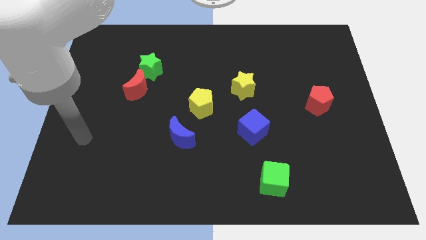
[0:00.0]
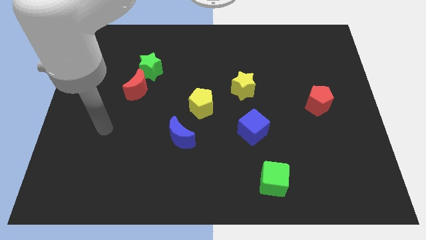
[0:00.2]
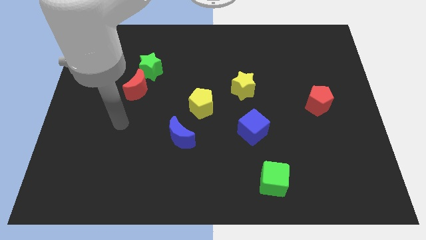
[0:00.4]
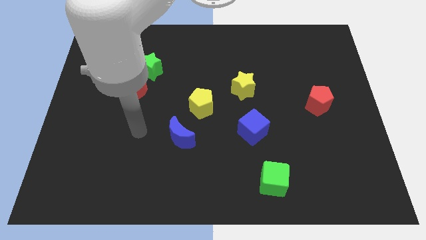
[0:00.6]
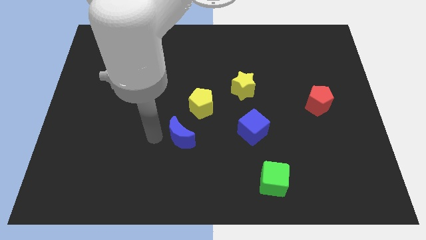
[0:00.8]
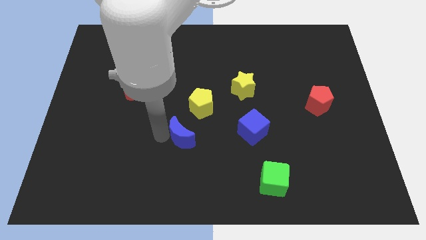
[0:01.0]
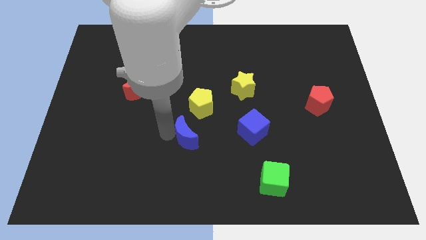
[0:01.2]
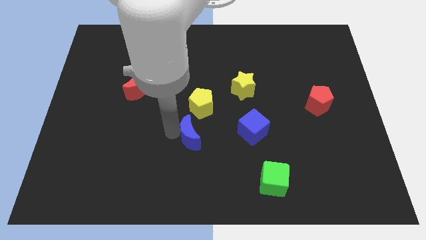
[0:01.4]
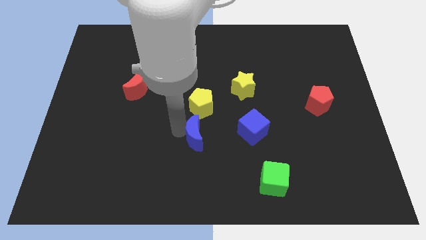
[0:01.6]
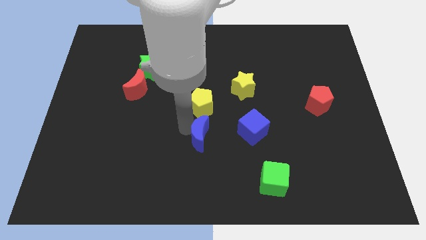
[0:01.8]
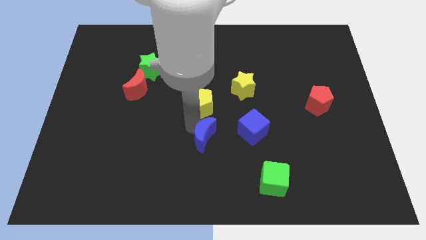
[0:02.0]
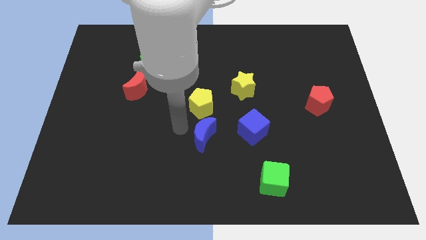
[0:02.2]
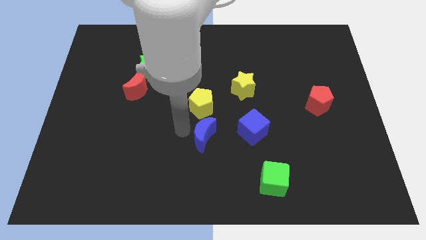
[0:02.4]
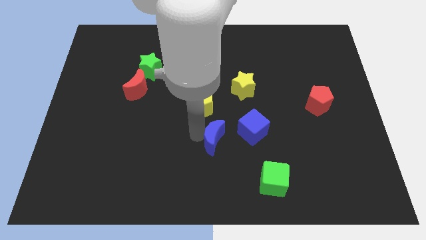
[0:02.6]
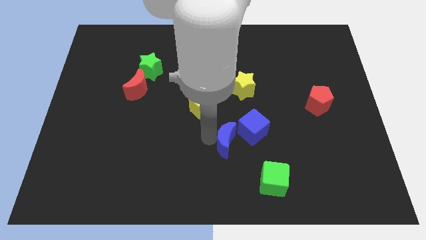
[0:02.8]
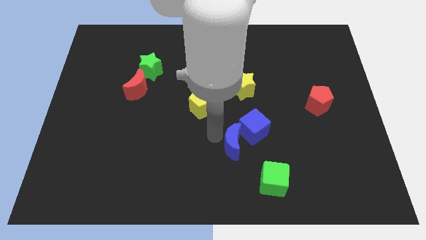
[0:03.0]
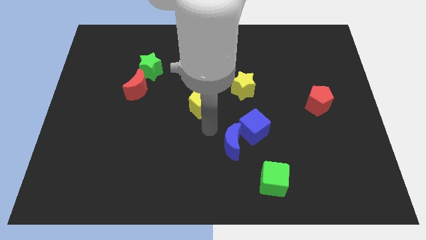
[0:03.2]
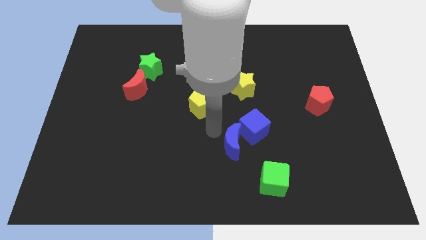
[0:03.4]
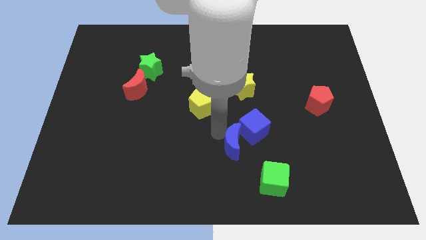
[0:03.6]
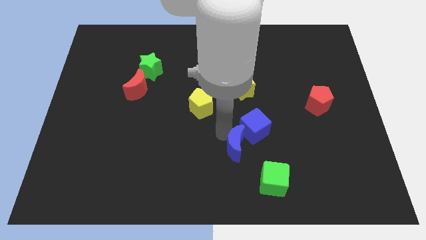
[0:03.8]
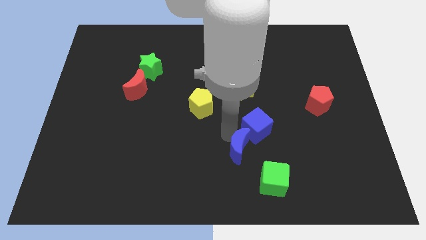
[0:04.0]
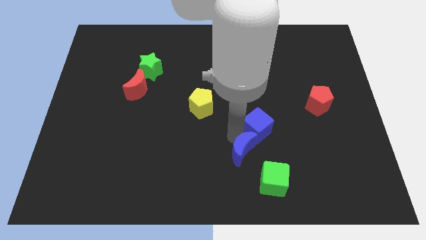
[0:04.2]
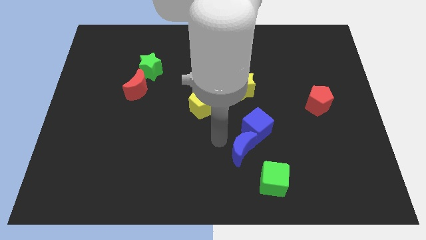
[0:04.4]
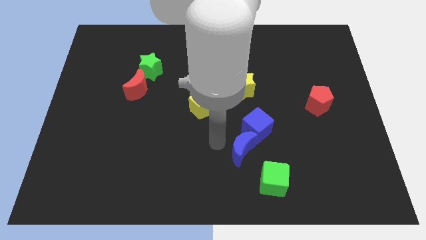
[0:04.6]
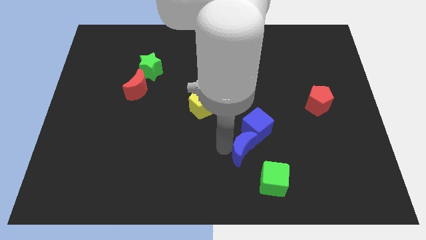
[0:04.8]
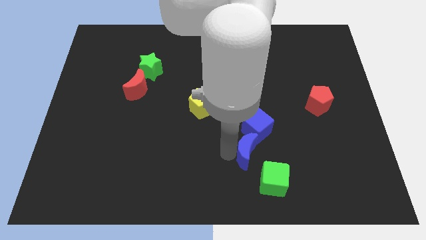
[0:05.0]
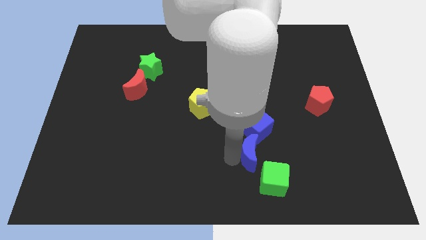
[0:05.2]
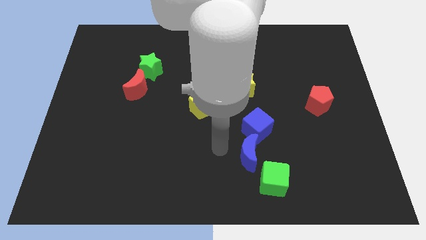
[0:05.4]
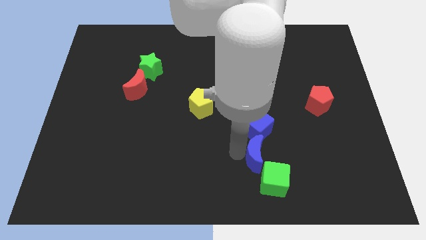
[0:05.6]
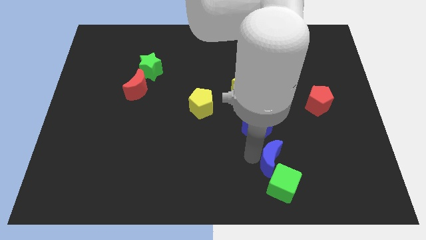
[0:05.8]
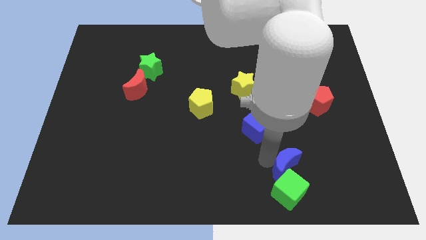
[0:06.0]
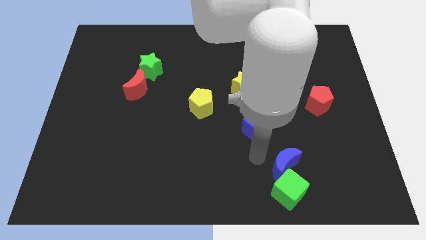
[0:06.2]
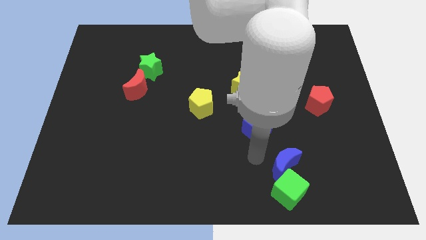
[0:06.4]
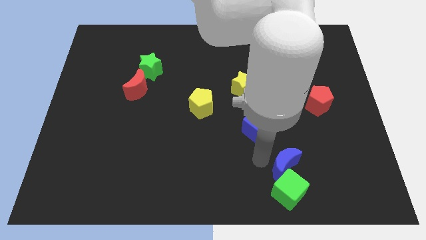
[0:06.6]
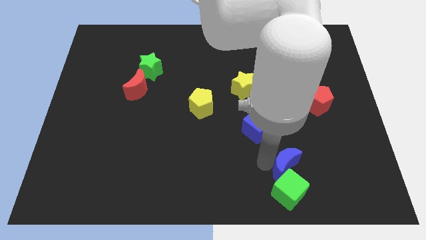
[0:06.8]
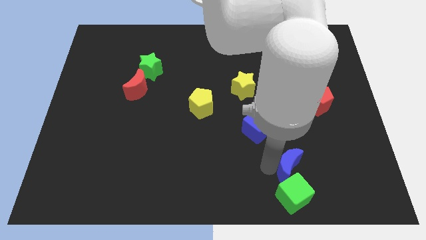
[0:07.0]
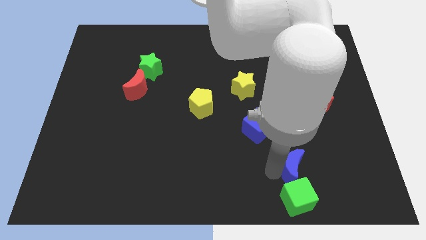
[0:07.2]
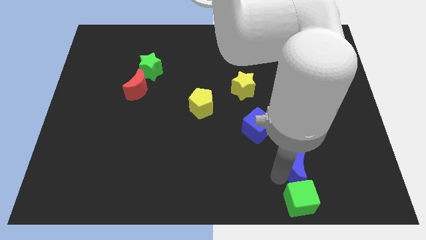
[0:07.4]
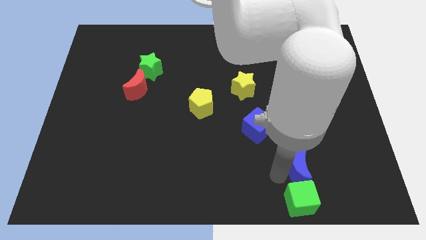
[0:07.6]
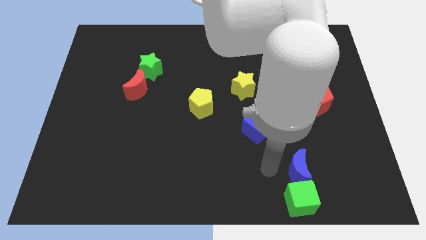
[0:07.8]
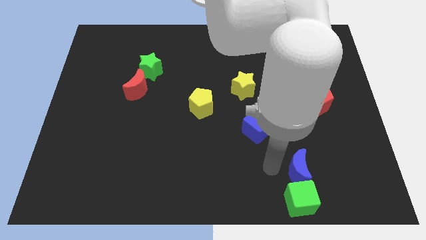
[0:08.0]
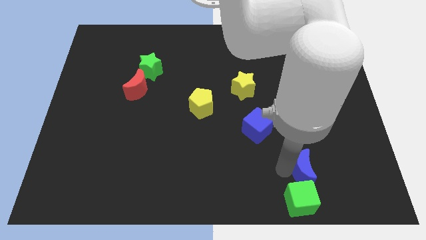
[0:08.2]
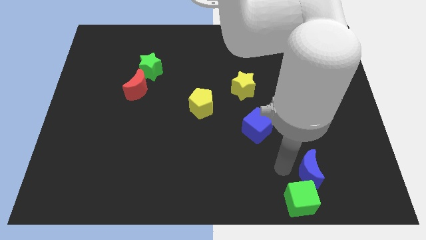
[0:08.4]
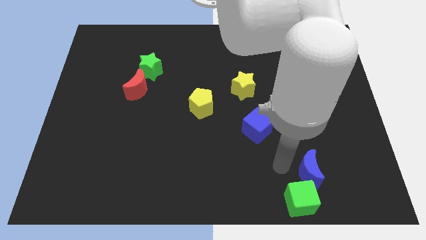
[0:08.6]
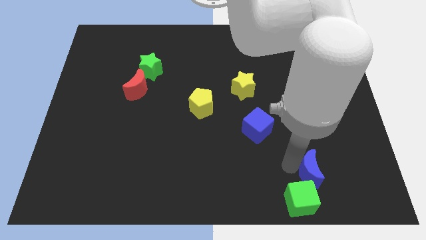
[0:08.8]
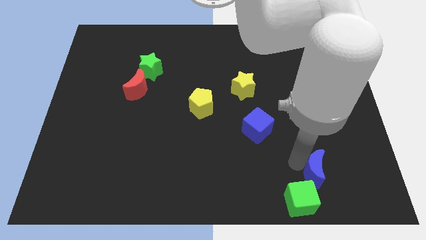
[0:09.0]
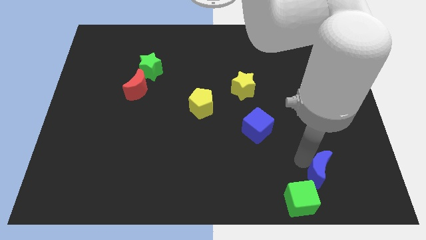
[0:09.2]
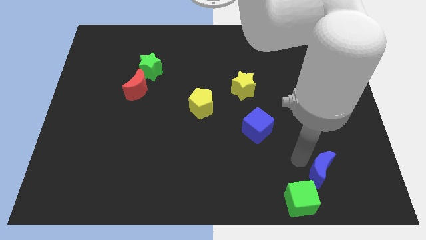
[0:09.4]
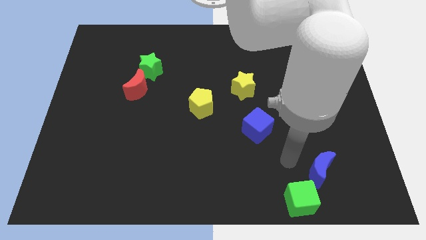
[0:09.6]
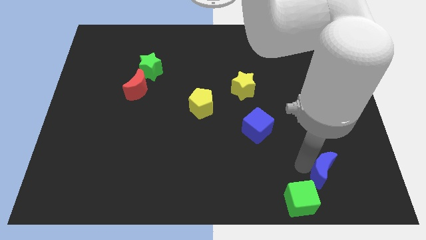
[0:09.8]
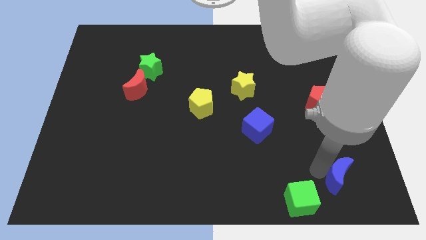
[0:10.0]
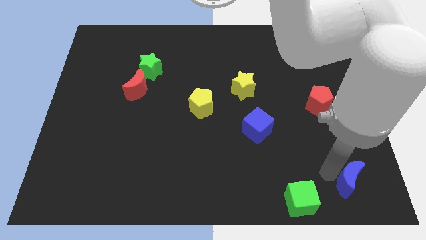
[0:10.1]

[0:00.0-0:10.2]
slide the blue moon to the lower right corner

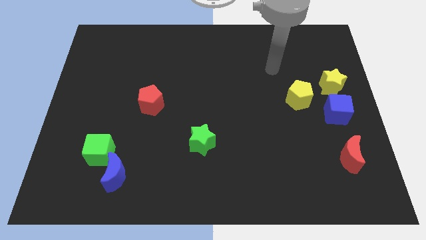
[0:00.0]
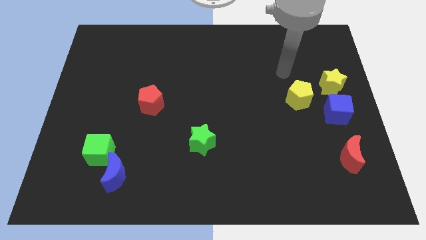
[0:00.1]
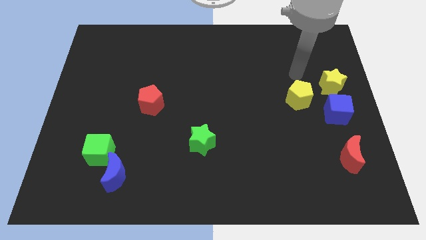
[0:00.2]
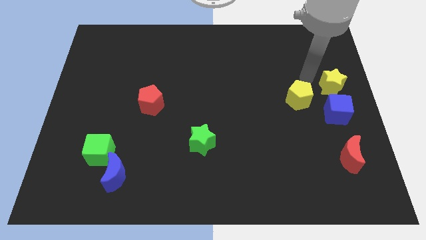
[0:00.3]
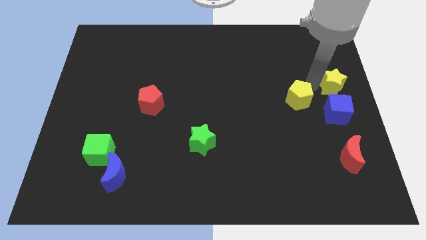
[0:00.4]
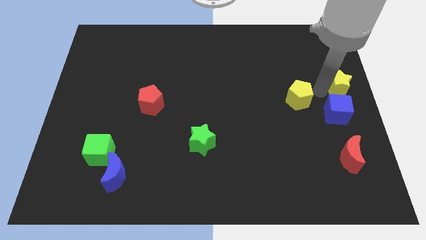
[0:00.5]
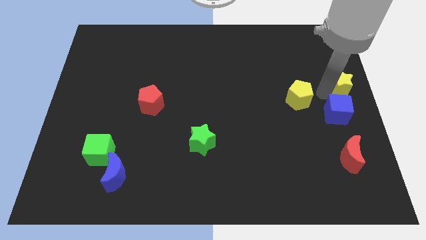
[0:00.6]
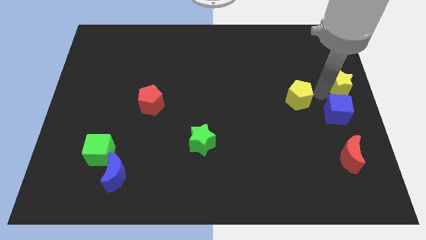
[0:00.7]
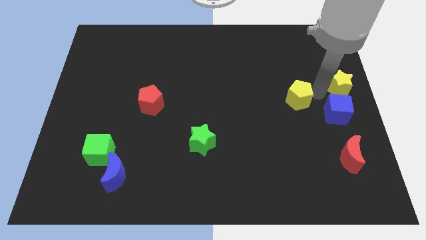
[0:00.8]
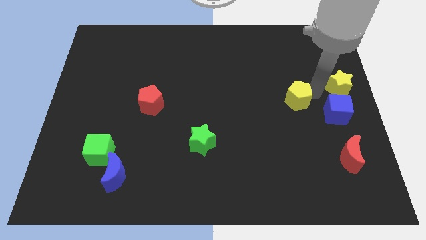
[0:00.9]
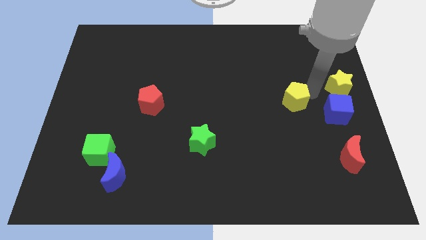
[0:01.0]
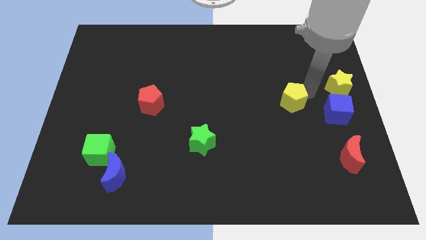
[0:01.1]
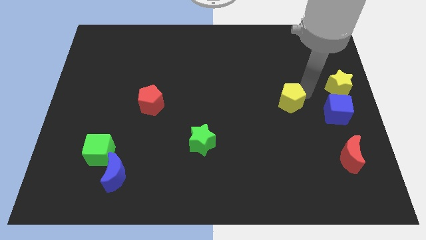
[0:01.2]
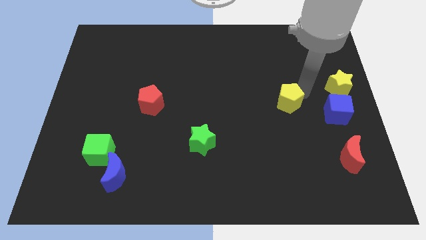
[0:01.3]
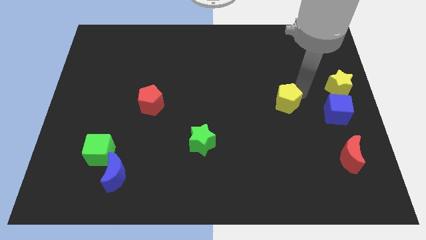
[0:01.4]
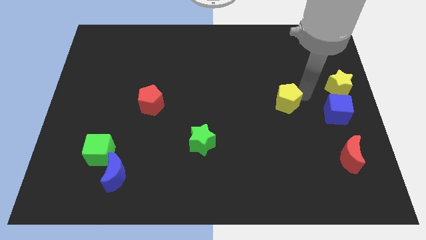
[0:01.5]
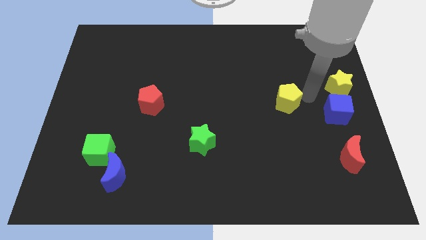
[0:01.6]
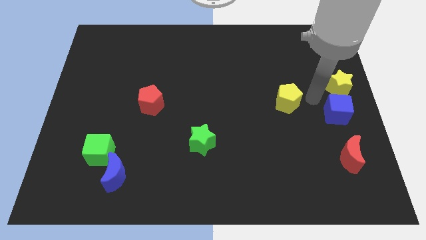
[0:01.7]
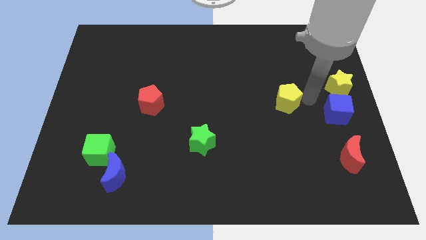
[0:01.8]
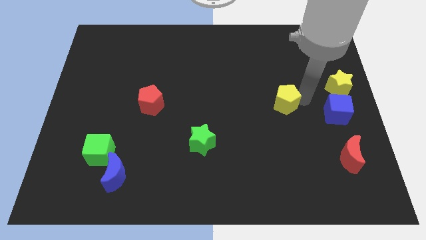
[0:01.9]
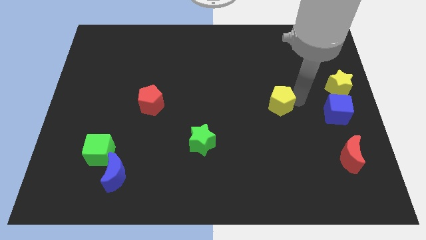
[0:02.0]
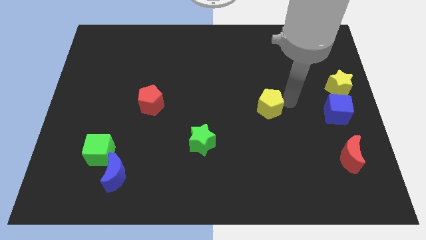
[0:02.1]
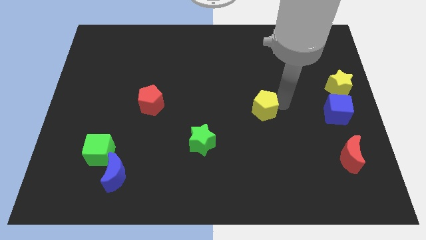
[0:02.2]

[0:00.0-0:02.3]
push the yellow pentagon to the middle
